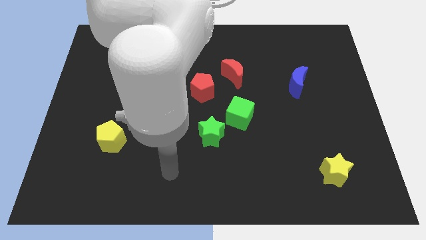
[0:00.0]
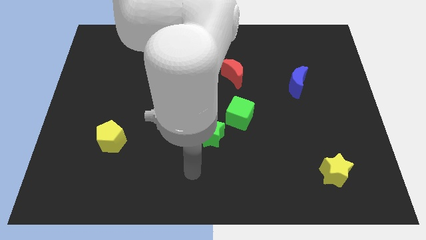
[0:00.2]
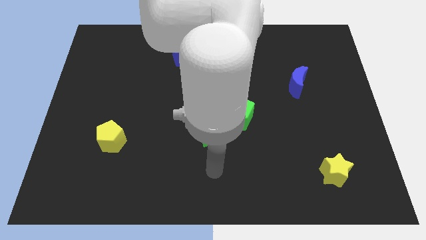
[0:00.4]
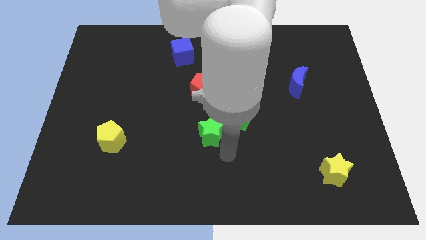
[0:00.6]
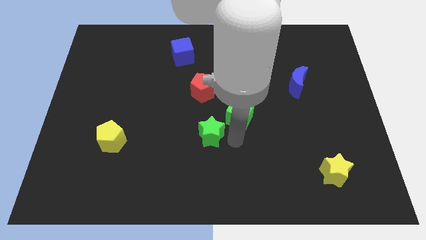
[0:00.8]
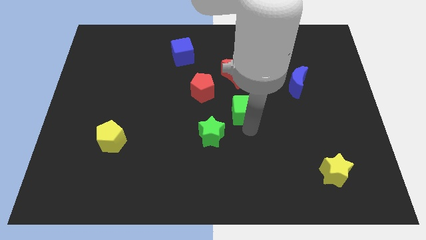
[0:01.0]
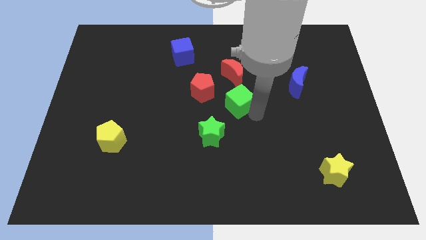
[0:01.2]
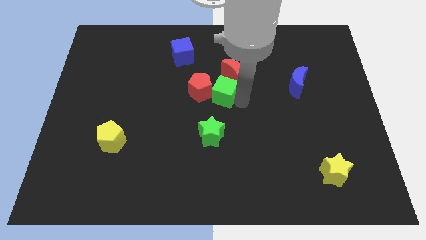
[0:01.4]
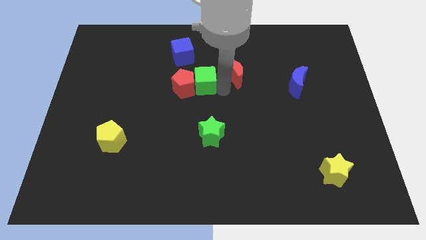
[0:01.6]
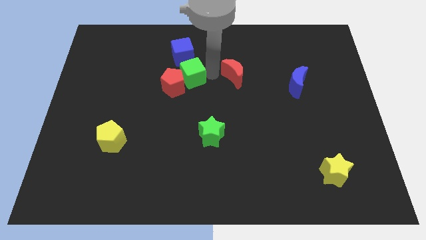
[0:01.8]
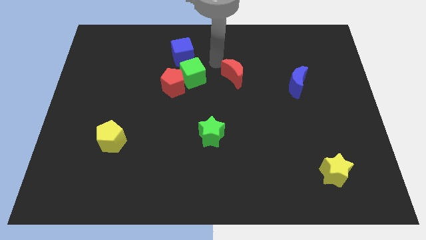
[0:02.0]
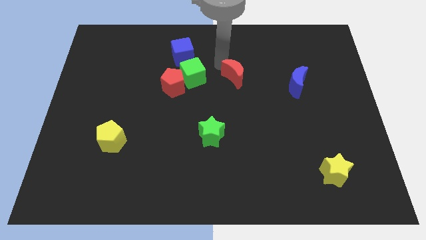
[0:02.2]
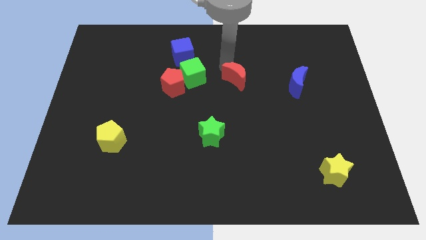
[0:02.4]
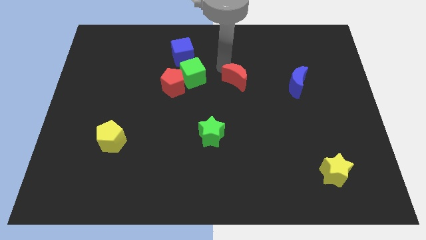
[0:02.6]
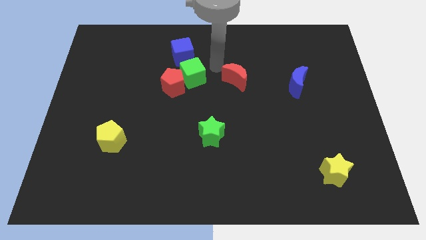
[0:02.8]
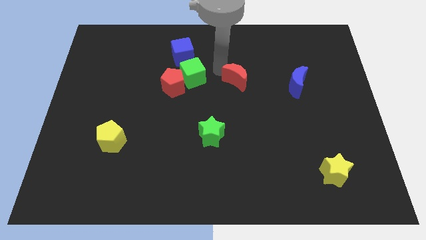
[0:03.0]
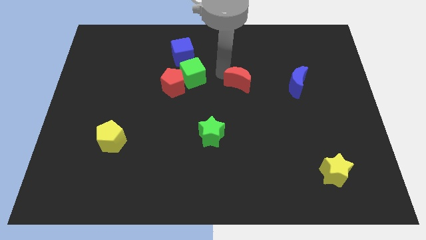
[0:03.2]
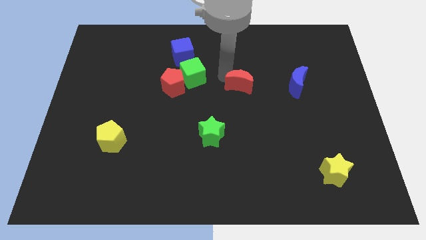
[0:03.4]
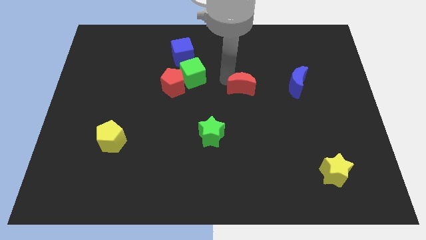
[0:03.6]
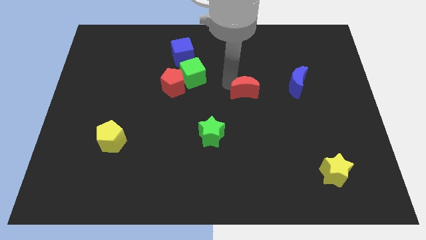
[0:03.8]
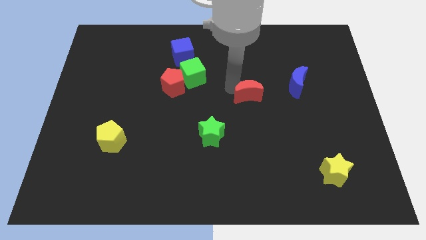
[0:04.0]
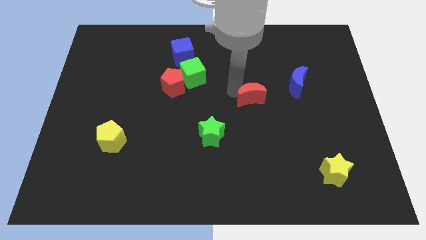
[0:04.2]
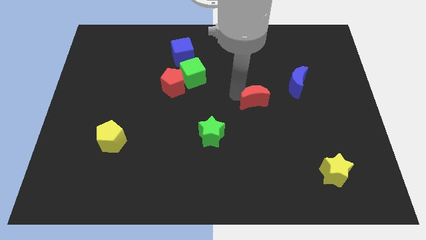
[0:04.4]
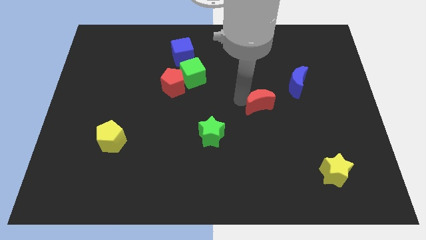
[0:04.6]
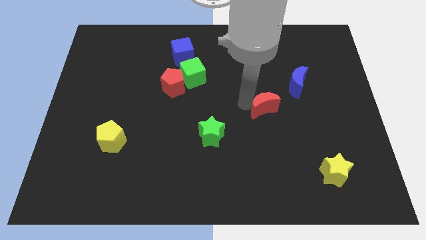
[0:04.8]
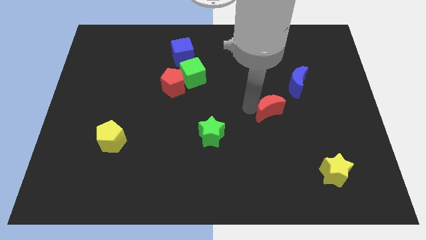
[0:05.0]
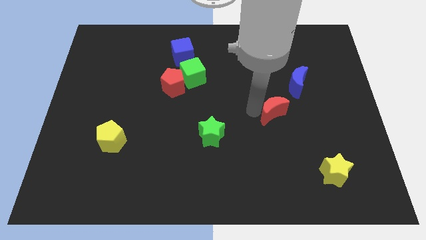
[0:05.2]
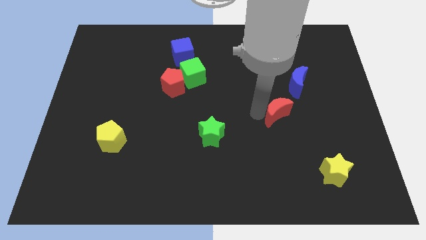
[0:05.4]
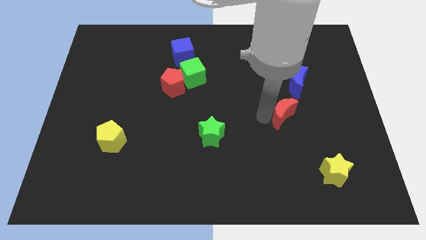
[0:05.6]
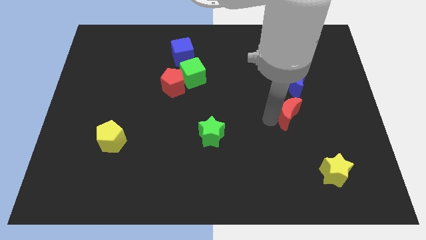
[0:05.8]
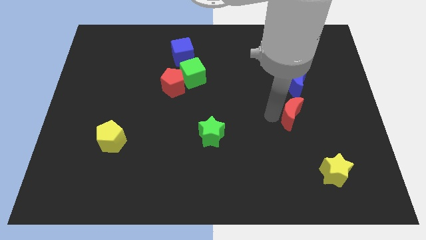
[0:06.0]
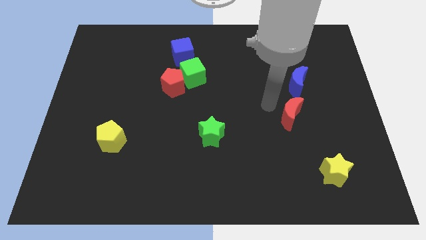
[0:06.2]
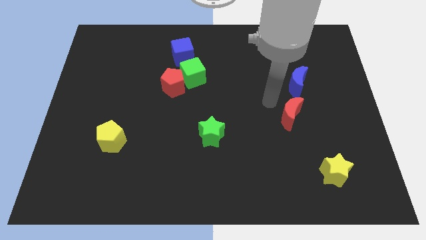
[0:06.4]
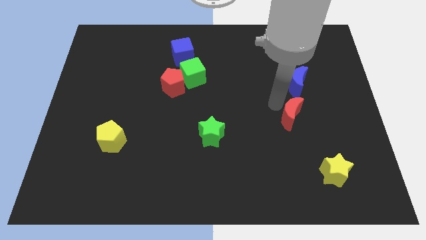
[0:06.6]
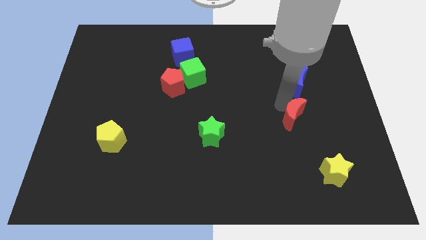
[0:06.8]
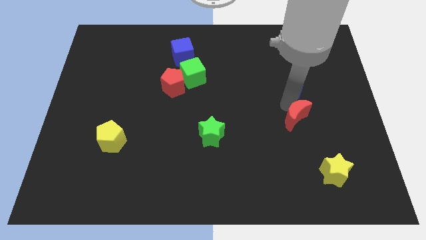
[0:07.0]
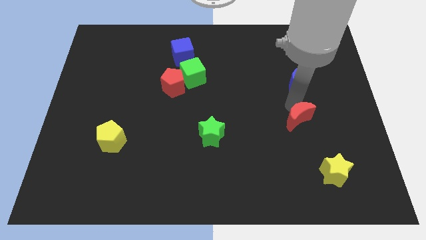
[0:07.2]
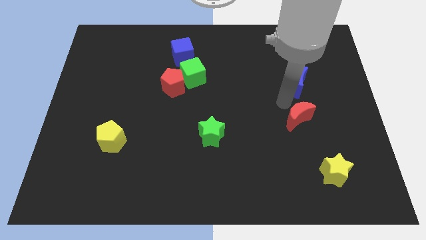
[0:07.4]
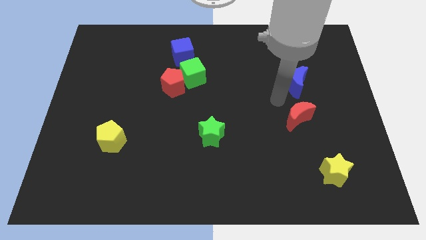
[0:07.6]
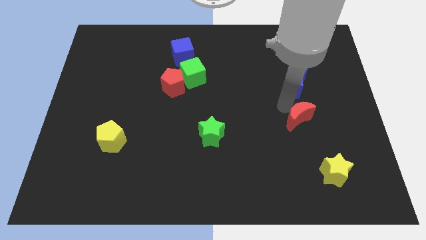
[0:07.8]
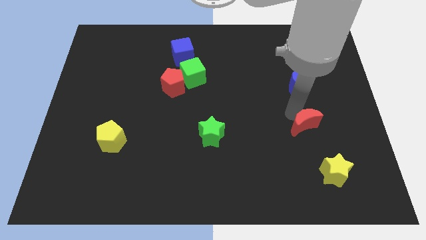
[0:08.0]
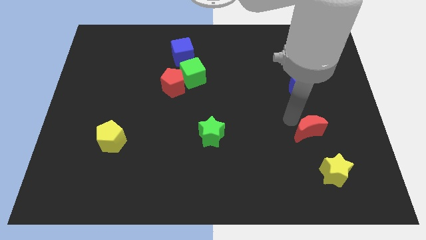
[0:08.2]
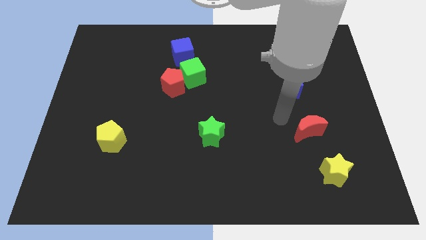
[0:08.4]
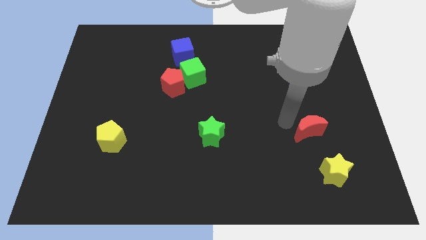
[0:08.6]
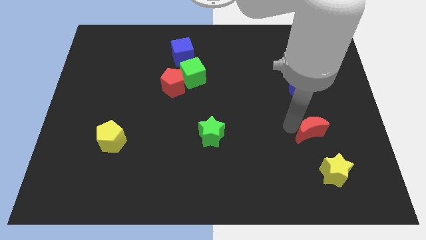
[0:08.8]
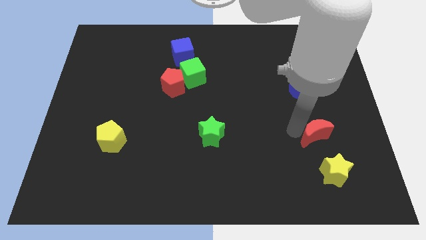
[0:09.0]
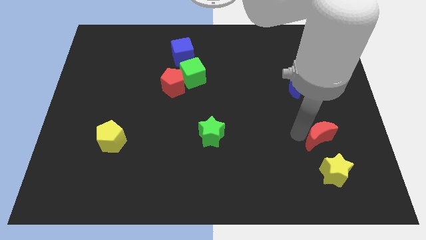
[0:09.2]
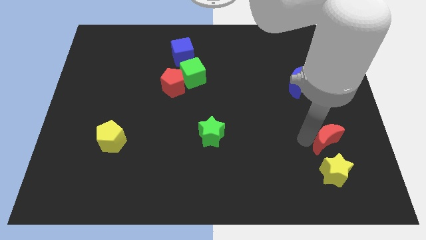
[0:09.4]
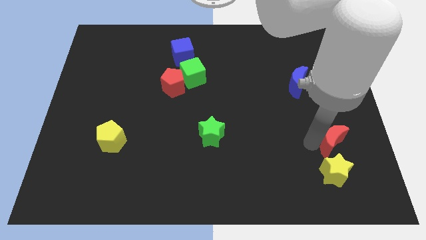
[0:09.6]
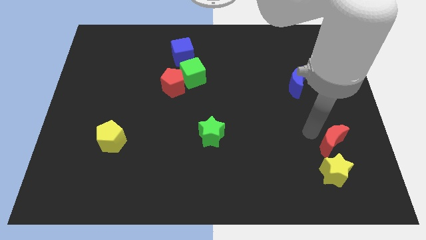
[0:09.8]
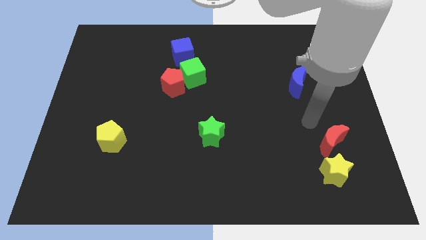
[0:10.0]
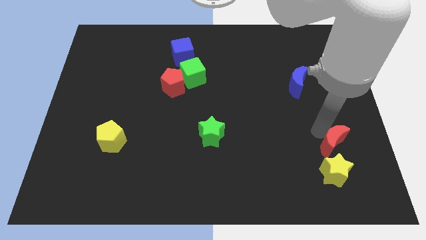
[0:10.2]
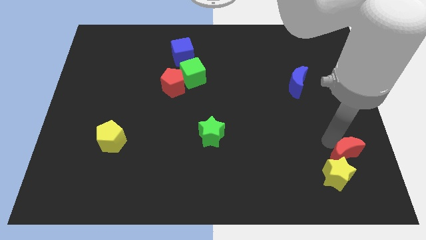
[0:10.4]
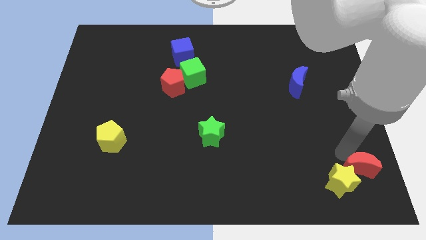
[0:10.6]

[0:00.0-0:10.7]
slide the red moon to the bottom right
